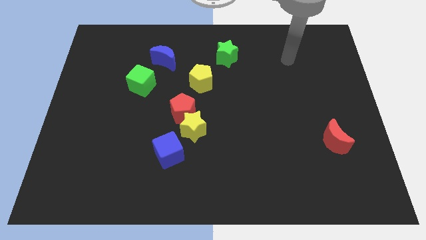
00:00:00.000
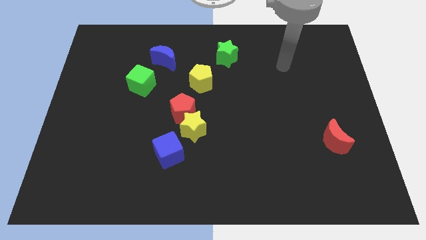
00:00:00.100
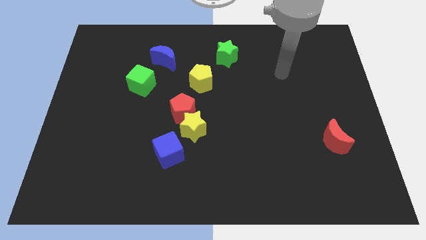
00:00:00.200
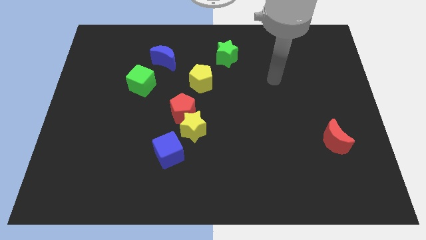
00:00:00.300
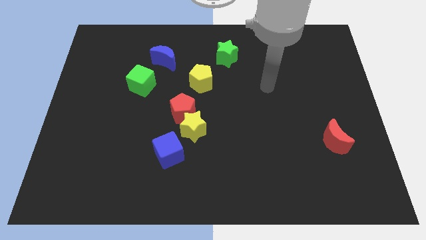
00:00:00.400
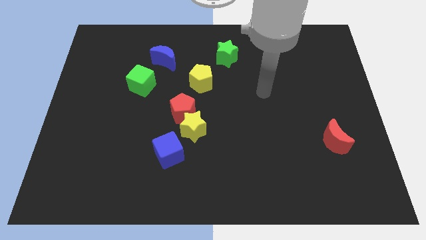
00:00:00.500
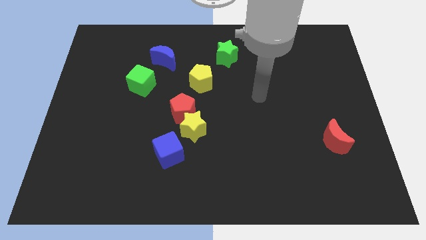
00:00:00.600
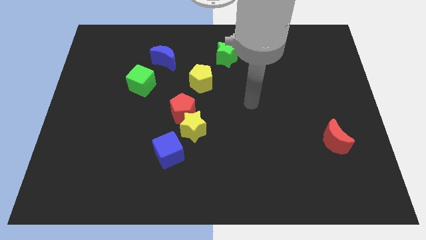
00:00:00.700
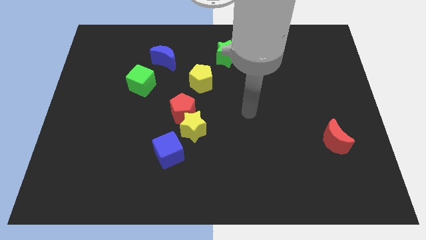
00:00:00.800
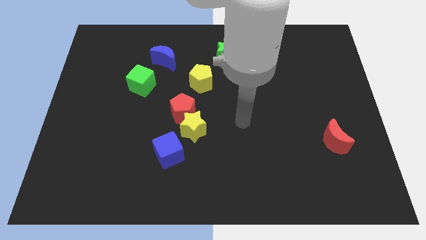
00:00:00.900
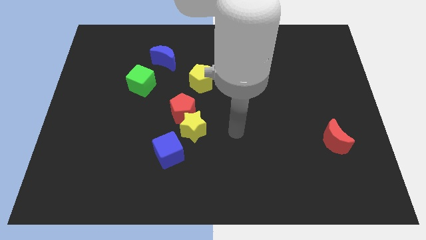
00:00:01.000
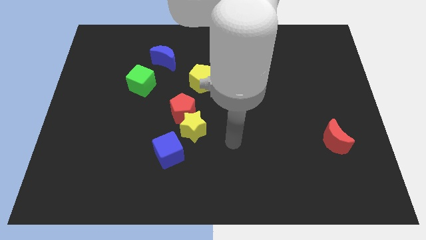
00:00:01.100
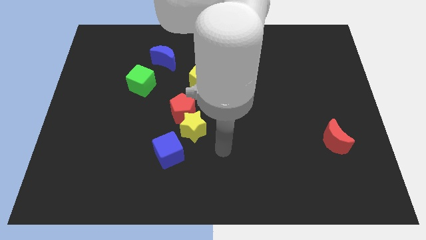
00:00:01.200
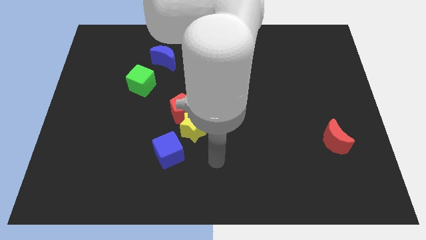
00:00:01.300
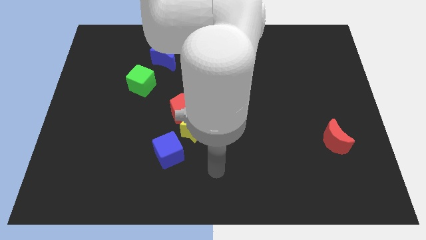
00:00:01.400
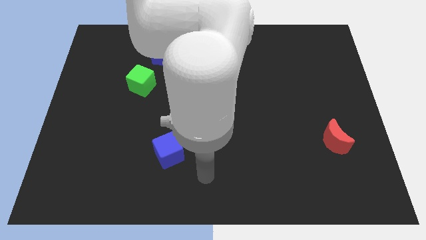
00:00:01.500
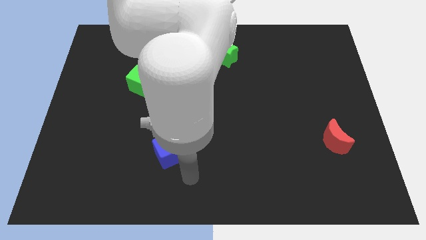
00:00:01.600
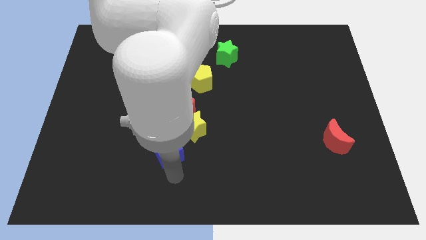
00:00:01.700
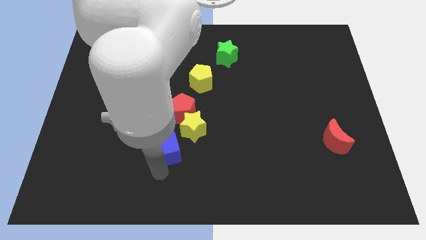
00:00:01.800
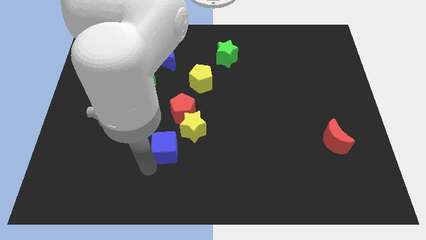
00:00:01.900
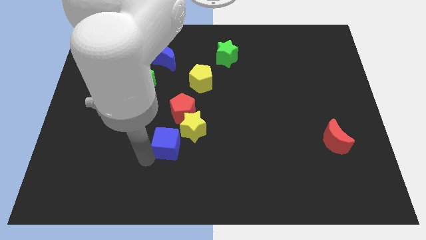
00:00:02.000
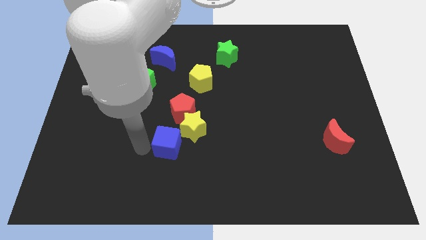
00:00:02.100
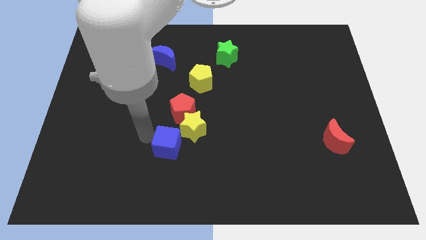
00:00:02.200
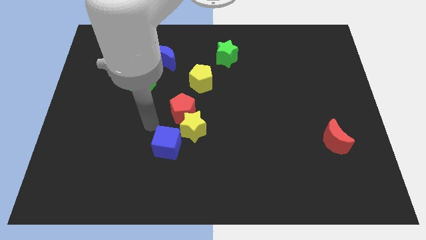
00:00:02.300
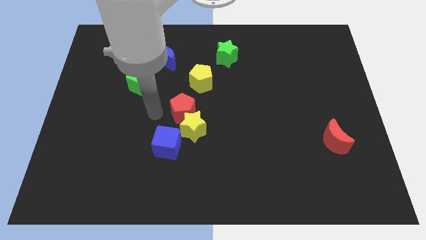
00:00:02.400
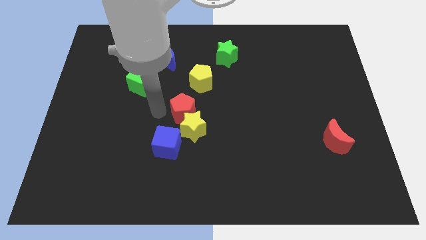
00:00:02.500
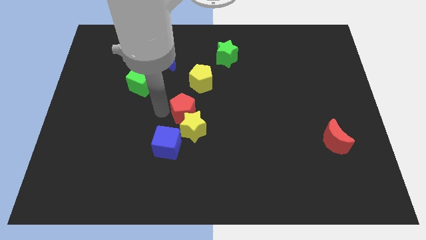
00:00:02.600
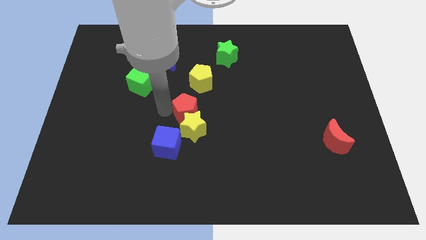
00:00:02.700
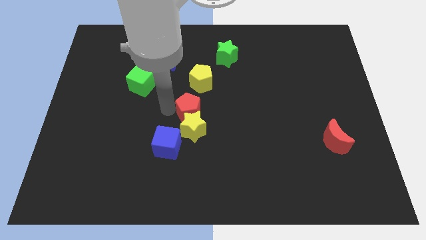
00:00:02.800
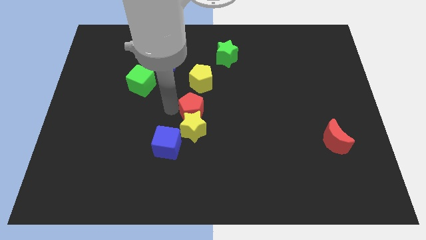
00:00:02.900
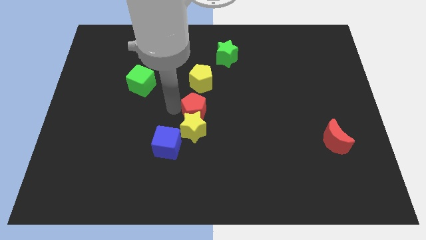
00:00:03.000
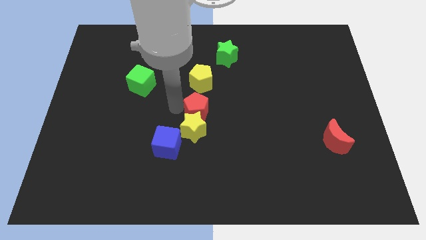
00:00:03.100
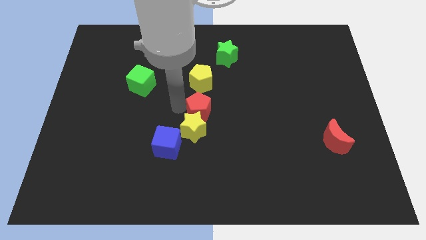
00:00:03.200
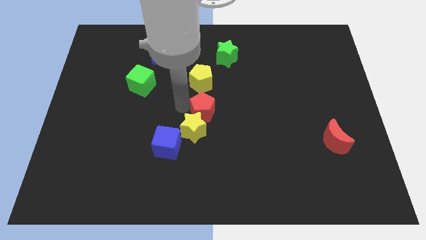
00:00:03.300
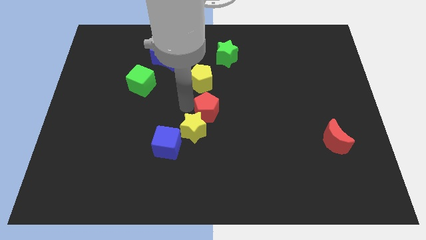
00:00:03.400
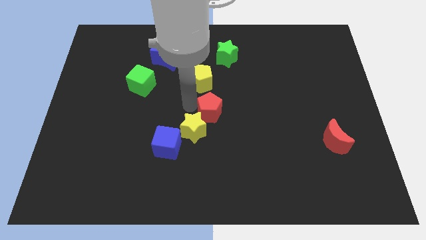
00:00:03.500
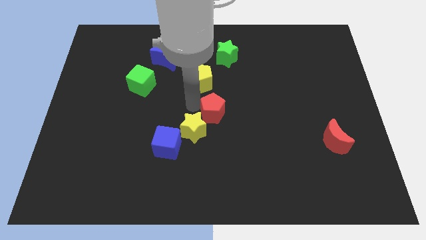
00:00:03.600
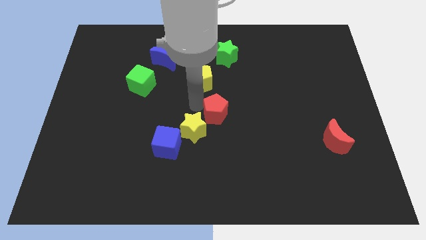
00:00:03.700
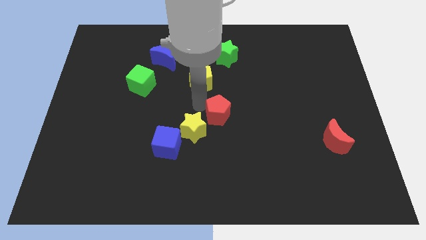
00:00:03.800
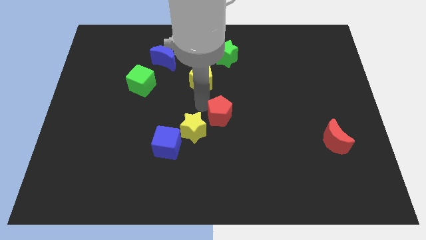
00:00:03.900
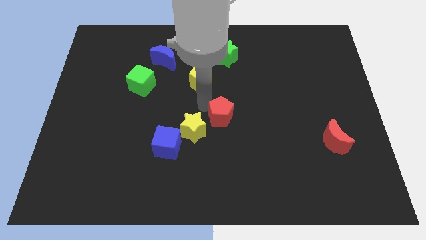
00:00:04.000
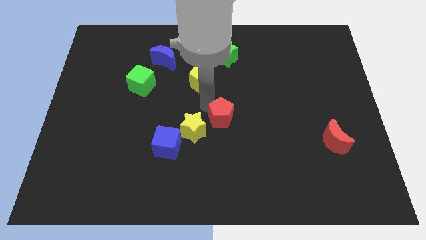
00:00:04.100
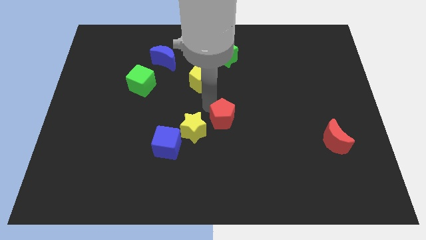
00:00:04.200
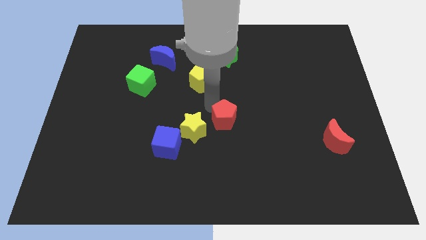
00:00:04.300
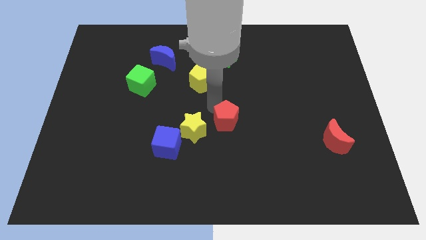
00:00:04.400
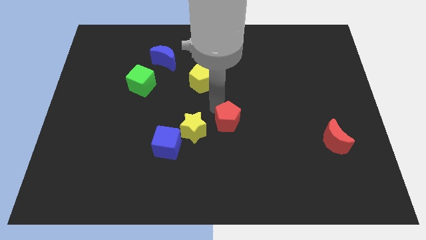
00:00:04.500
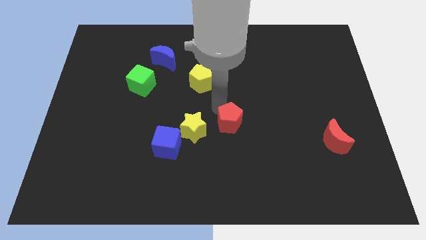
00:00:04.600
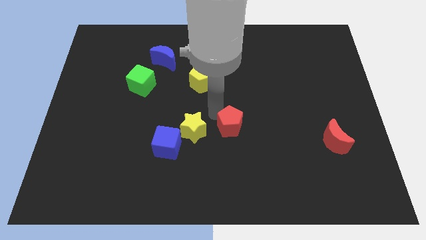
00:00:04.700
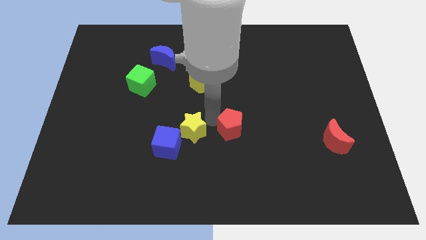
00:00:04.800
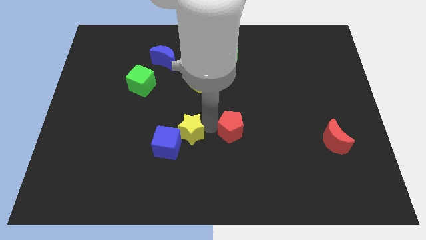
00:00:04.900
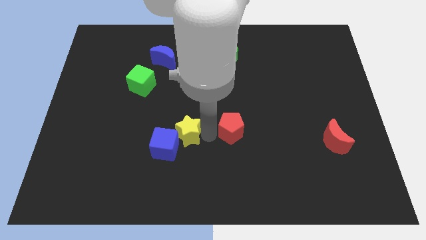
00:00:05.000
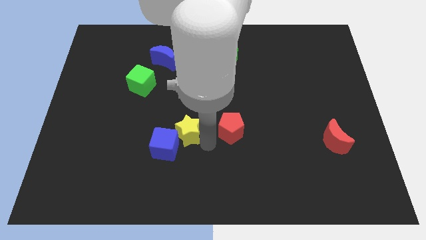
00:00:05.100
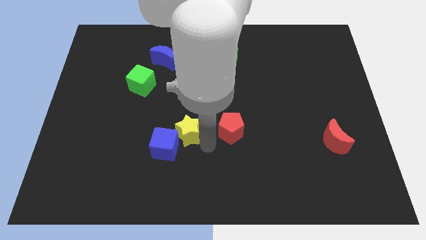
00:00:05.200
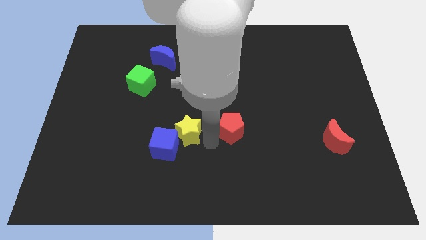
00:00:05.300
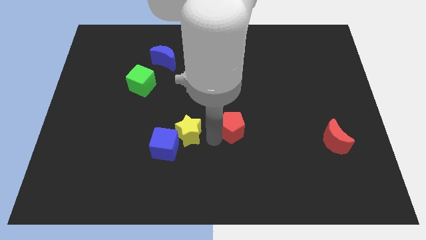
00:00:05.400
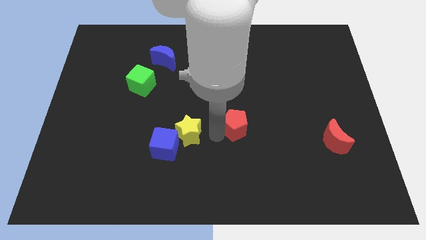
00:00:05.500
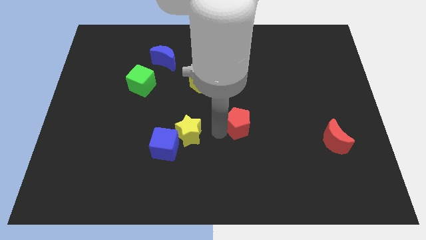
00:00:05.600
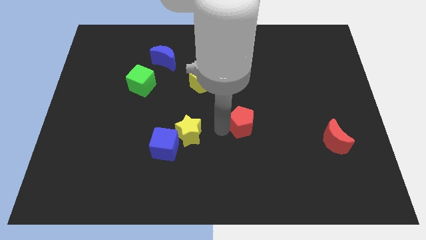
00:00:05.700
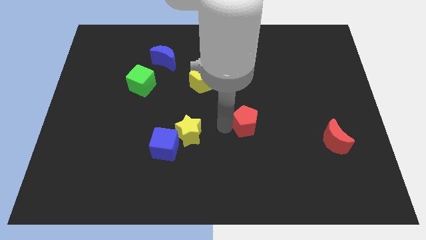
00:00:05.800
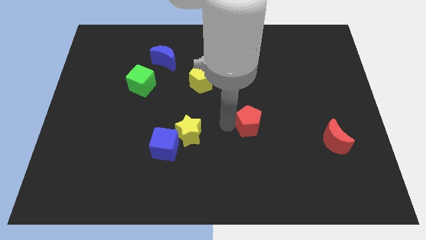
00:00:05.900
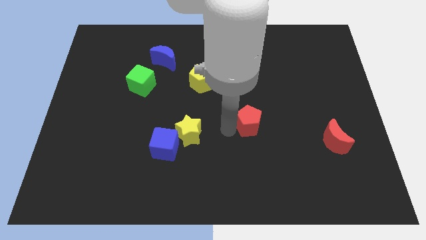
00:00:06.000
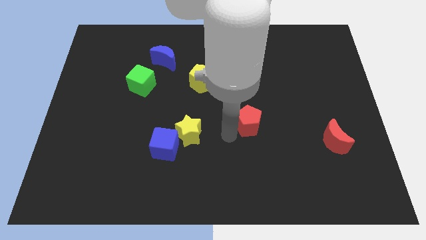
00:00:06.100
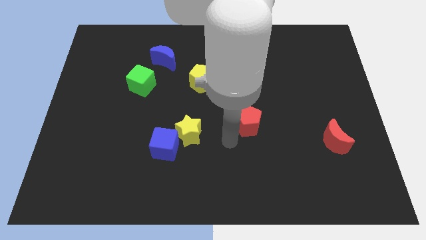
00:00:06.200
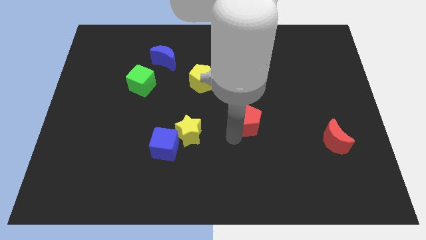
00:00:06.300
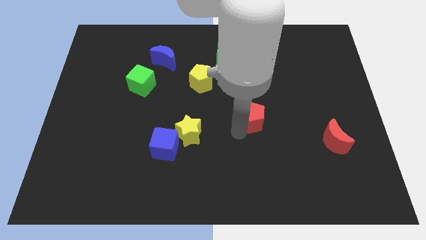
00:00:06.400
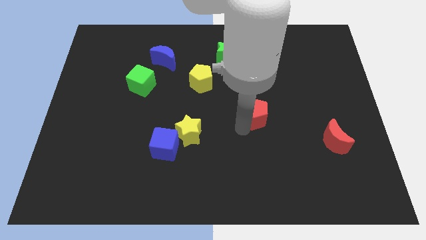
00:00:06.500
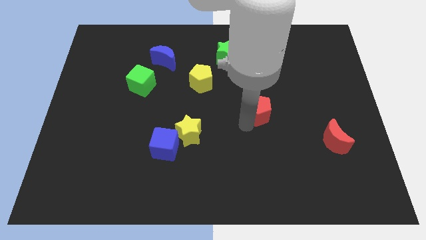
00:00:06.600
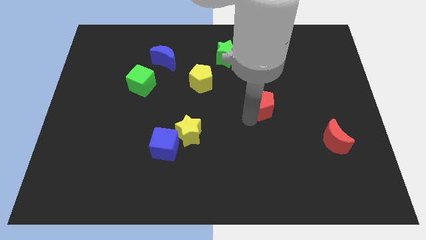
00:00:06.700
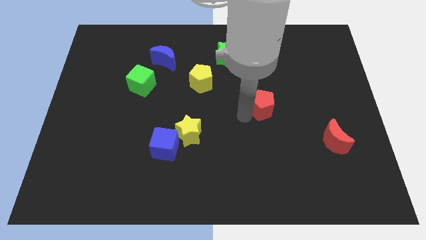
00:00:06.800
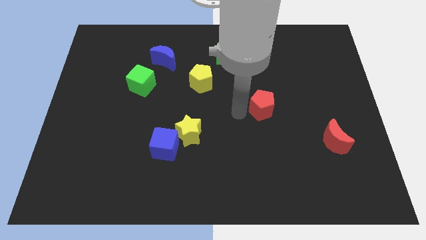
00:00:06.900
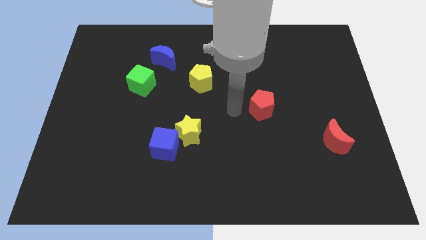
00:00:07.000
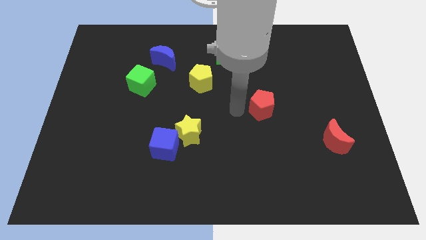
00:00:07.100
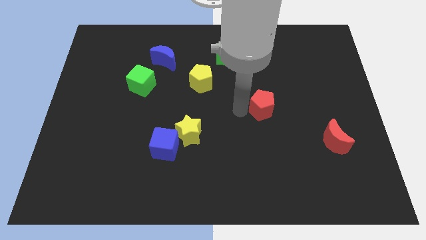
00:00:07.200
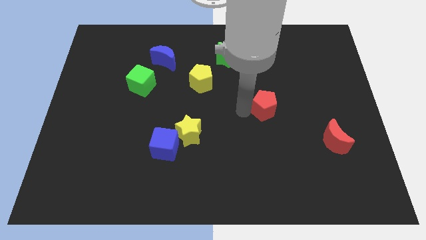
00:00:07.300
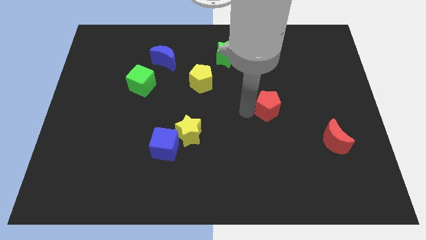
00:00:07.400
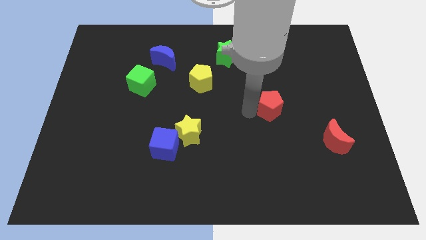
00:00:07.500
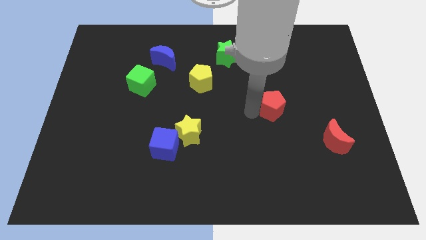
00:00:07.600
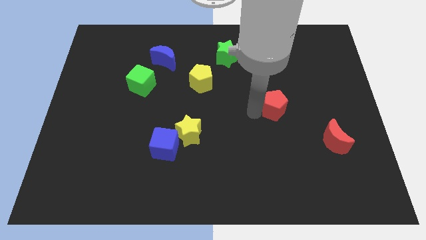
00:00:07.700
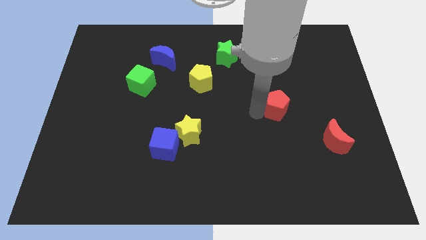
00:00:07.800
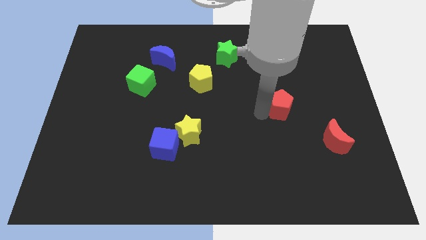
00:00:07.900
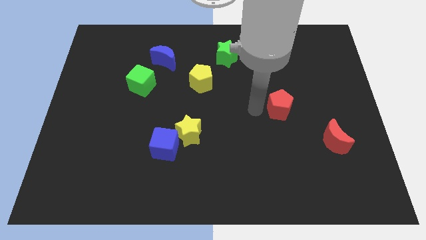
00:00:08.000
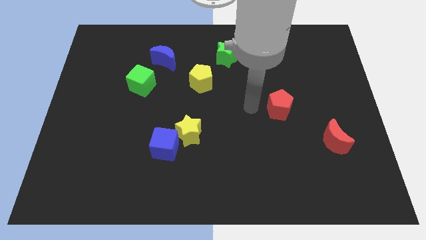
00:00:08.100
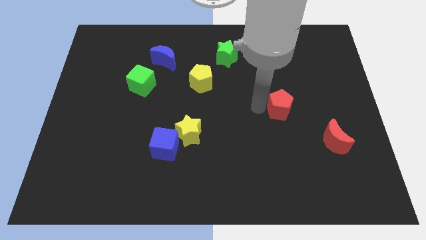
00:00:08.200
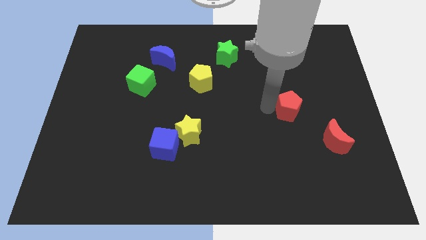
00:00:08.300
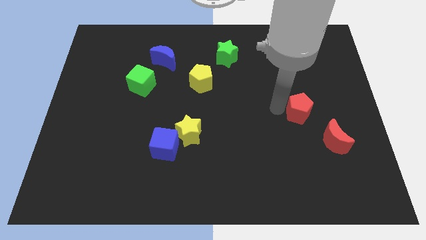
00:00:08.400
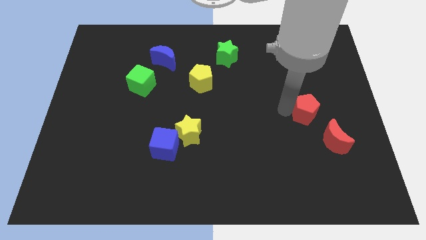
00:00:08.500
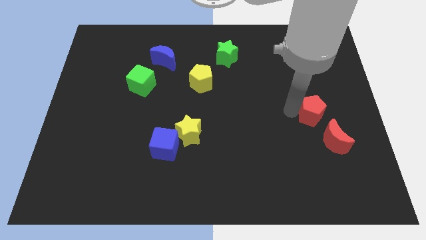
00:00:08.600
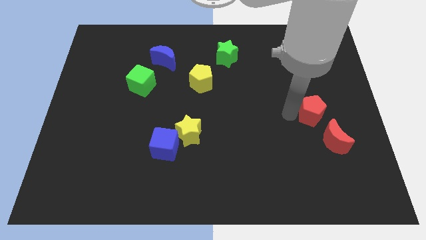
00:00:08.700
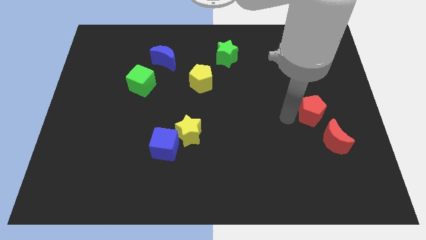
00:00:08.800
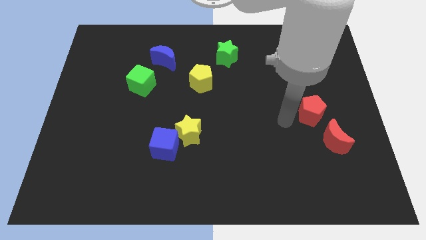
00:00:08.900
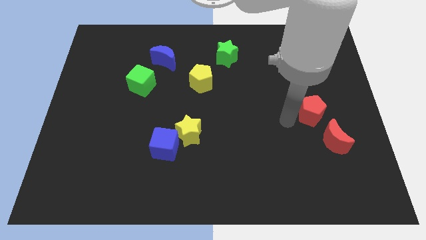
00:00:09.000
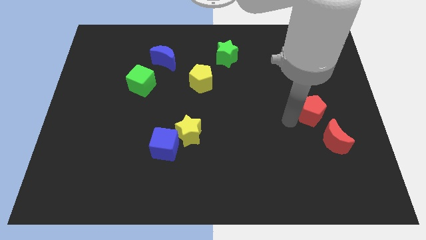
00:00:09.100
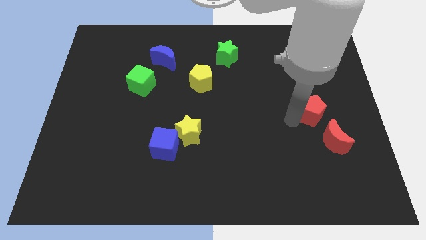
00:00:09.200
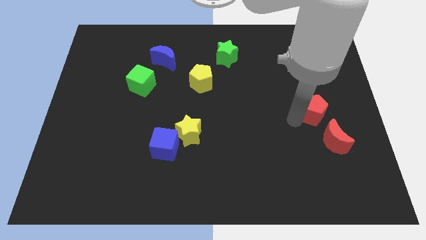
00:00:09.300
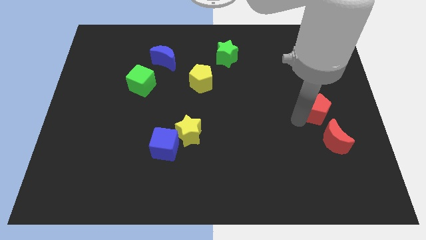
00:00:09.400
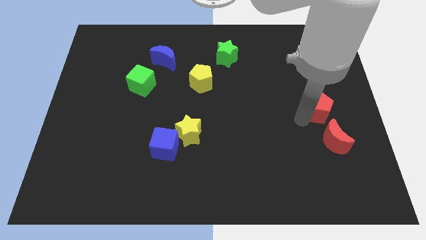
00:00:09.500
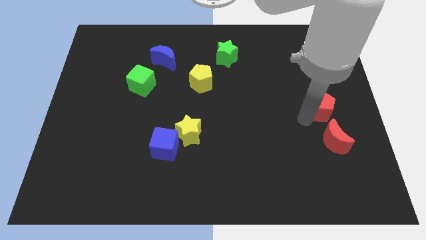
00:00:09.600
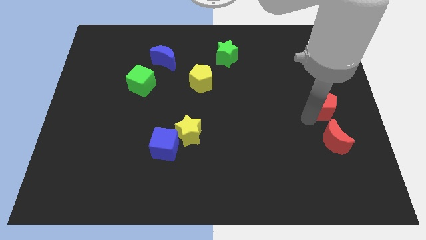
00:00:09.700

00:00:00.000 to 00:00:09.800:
put the red pentagon to the right side of the board
